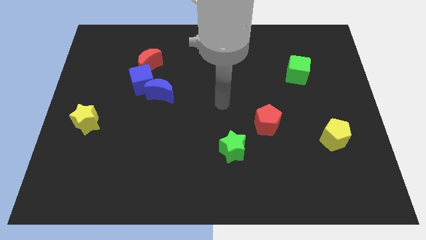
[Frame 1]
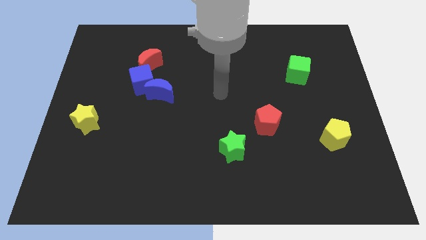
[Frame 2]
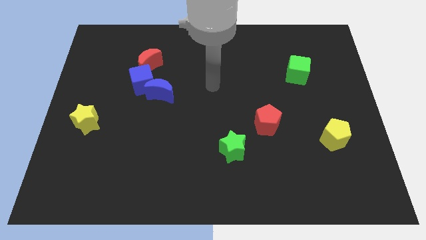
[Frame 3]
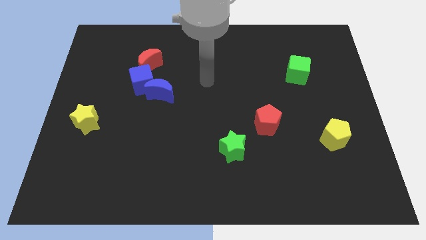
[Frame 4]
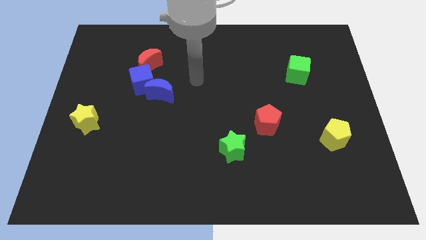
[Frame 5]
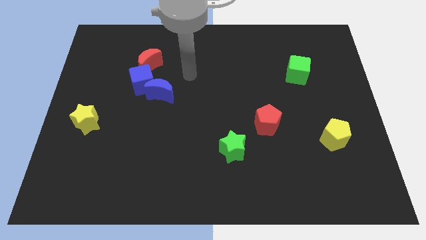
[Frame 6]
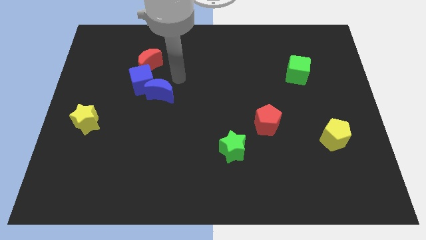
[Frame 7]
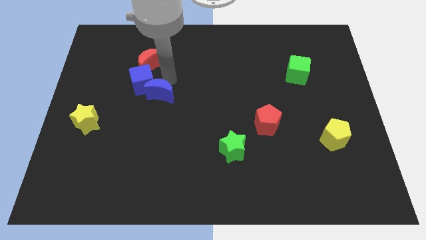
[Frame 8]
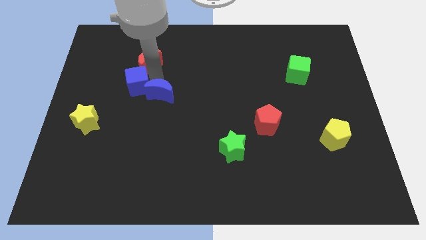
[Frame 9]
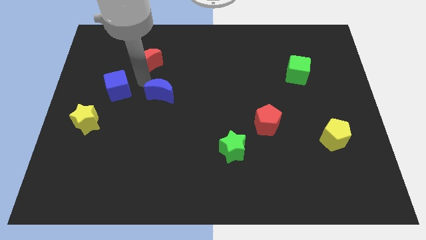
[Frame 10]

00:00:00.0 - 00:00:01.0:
separate the blue moon from the blue cube

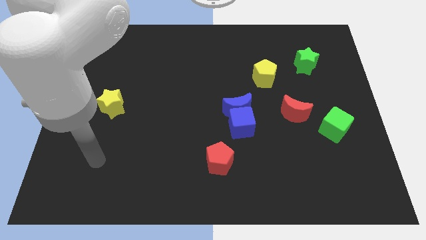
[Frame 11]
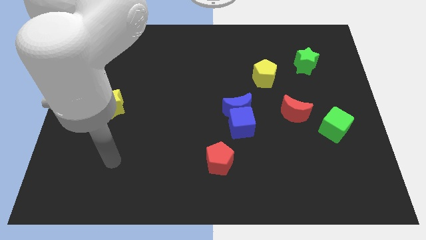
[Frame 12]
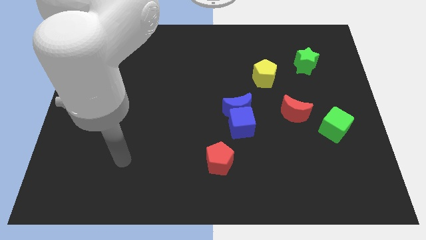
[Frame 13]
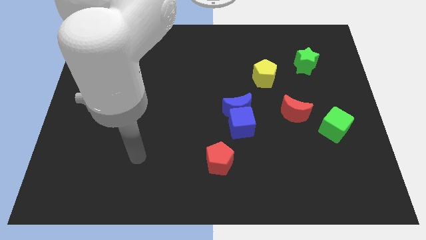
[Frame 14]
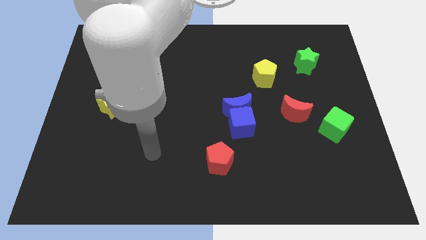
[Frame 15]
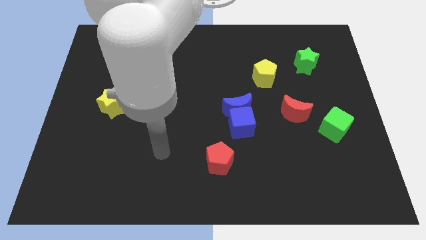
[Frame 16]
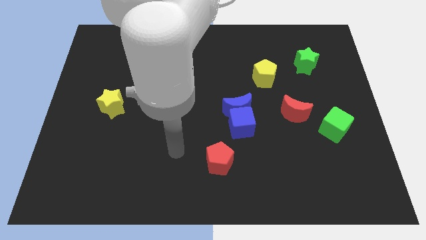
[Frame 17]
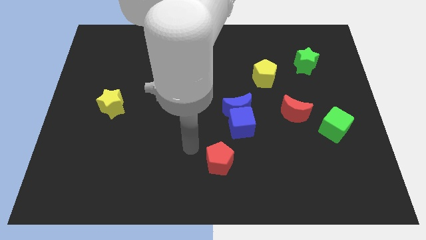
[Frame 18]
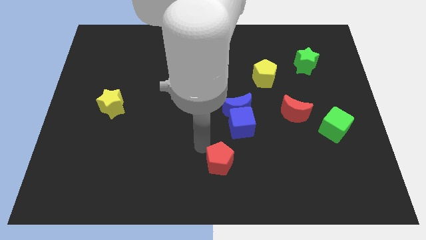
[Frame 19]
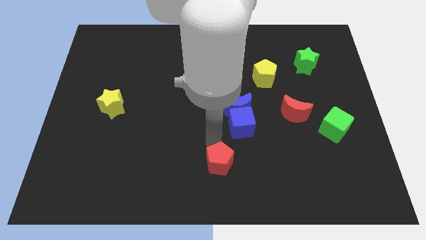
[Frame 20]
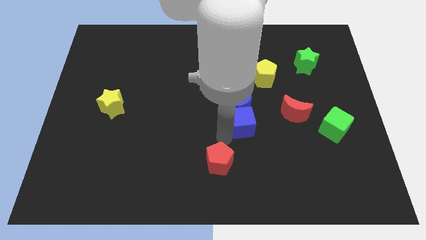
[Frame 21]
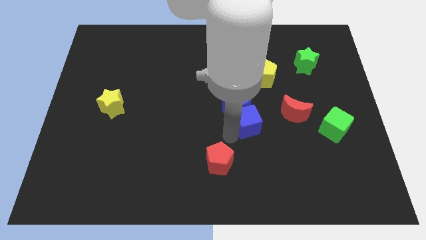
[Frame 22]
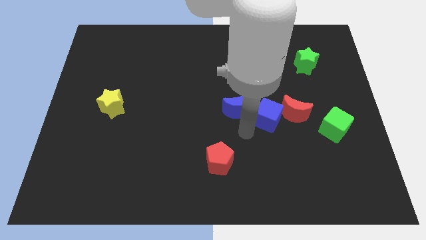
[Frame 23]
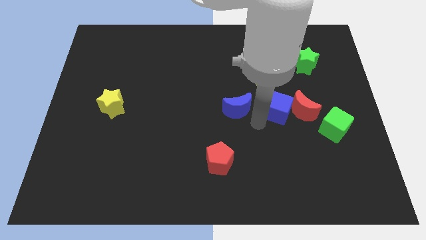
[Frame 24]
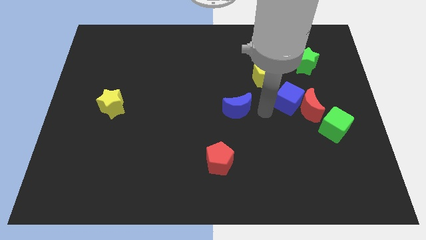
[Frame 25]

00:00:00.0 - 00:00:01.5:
move the blue moon away from the blue cube

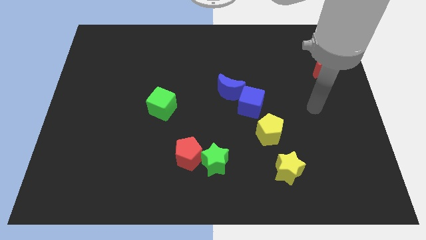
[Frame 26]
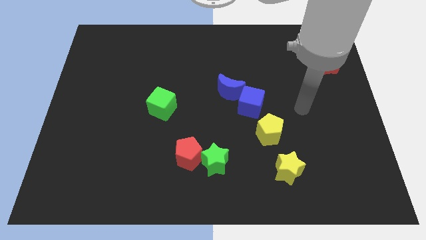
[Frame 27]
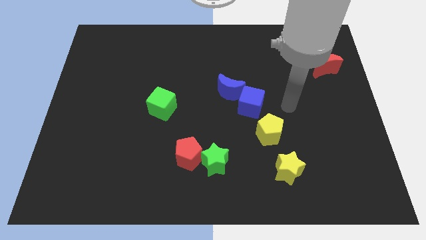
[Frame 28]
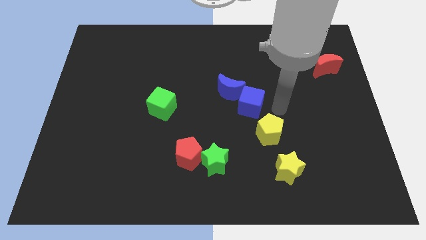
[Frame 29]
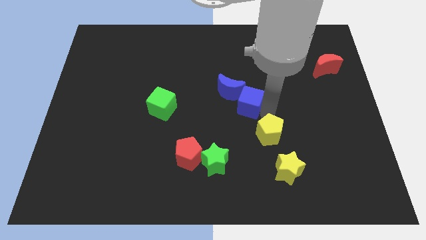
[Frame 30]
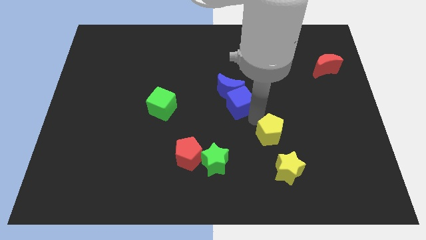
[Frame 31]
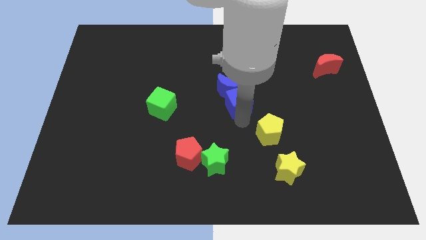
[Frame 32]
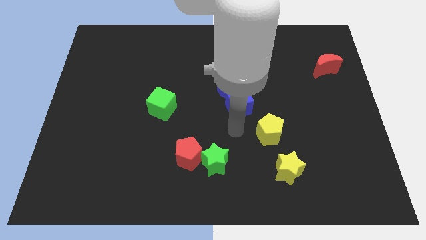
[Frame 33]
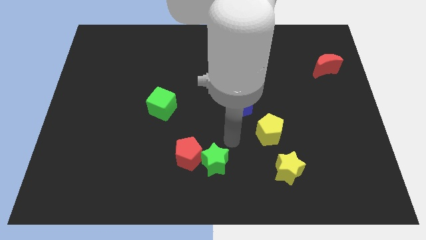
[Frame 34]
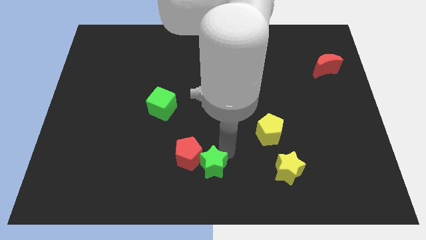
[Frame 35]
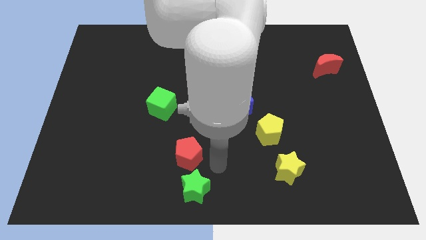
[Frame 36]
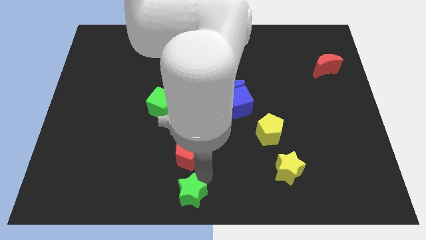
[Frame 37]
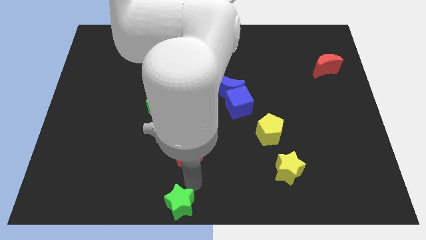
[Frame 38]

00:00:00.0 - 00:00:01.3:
move the red pentagon away from the green star

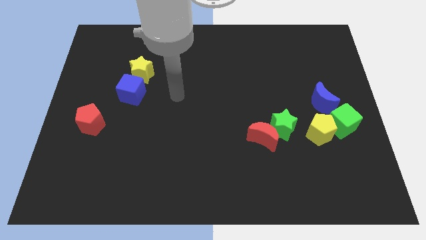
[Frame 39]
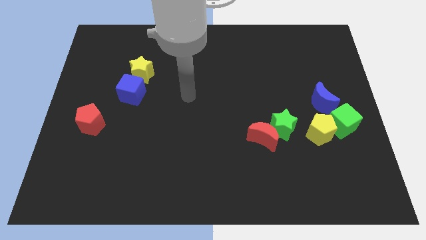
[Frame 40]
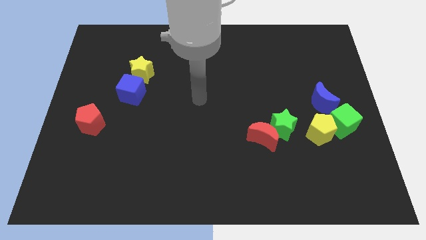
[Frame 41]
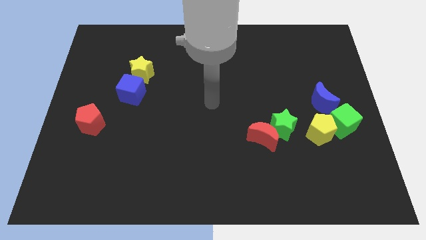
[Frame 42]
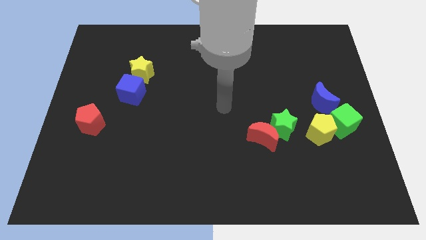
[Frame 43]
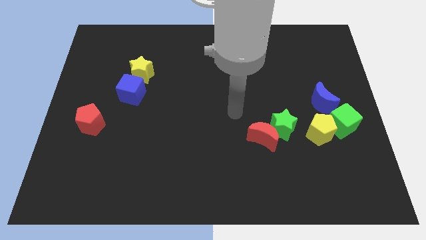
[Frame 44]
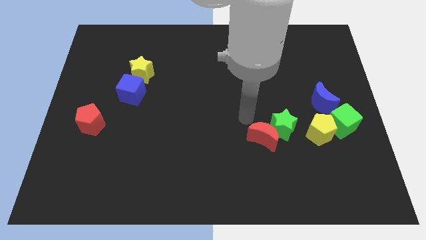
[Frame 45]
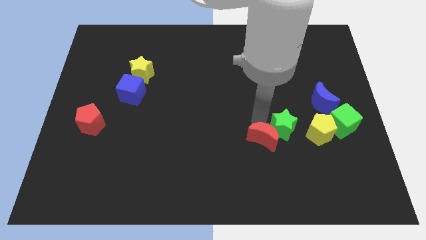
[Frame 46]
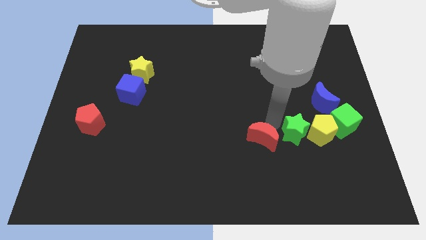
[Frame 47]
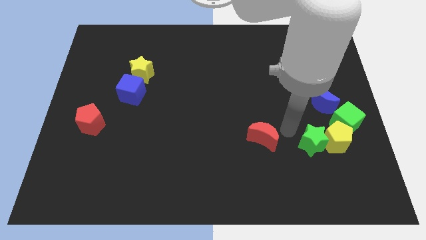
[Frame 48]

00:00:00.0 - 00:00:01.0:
move the red moon away from the green star

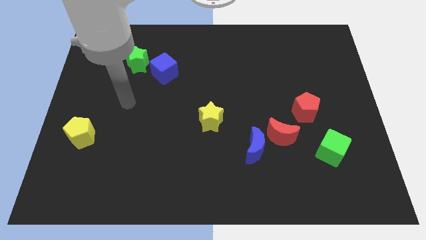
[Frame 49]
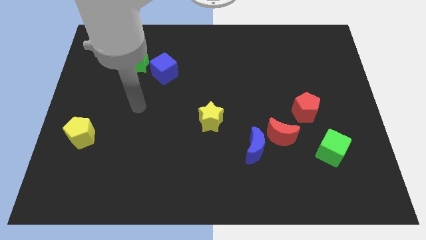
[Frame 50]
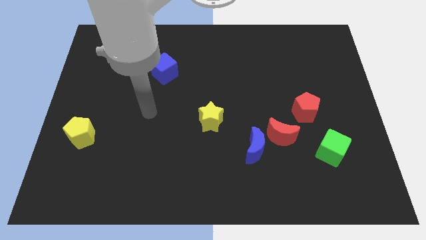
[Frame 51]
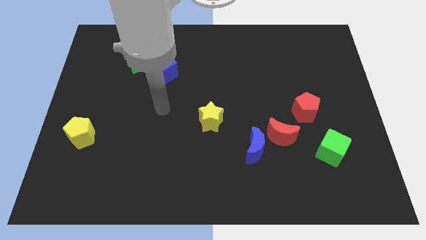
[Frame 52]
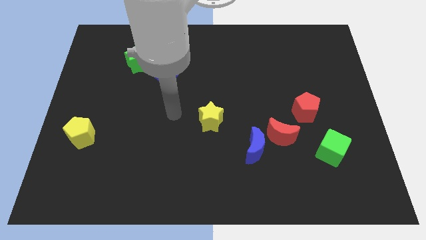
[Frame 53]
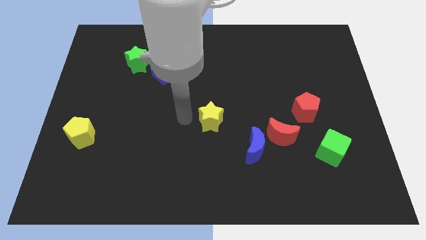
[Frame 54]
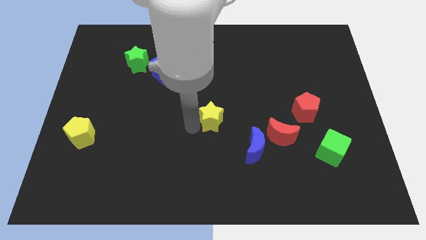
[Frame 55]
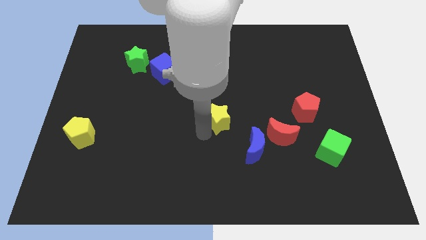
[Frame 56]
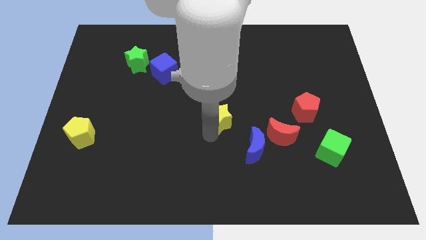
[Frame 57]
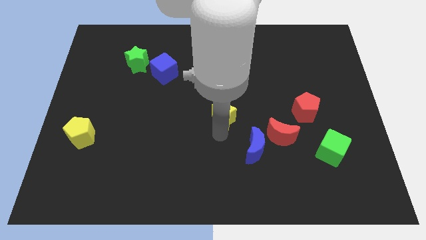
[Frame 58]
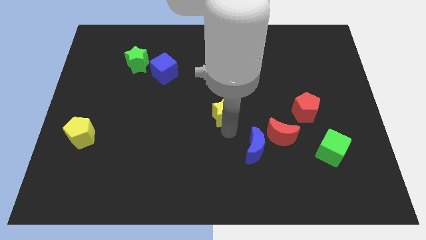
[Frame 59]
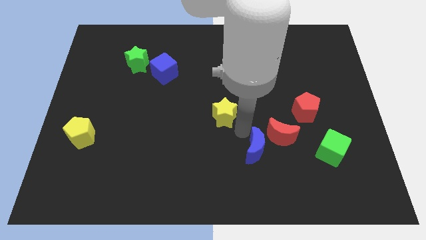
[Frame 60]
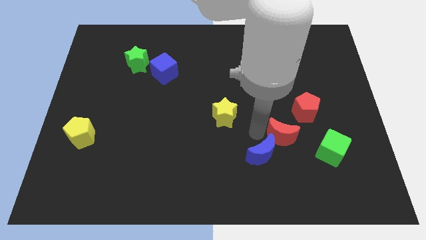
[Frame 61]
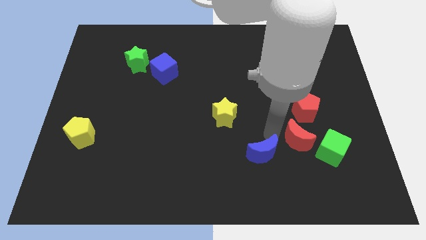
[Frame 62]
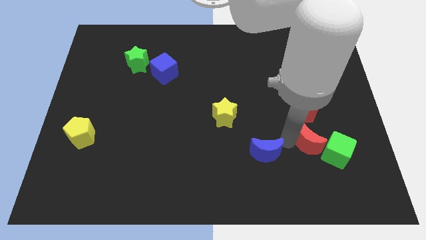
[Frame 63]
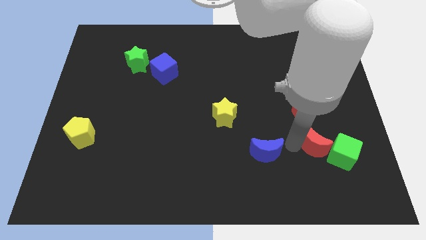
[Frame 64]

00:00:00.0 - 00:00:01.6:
pull the blue moon apart from the red moon

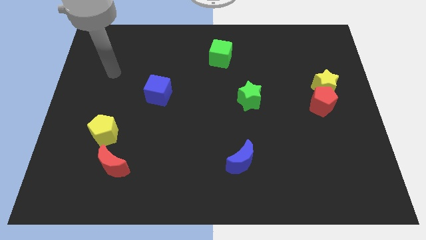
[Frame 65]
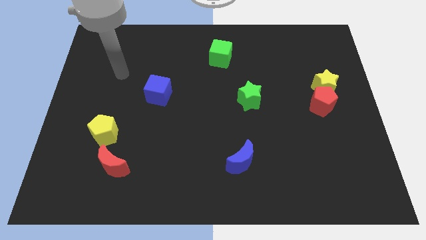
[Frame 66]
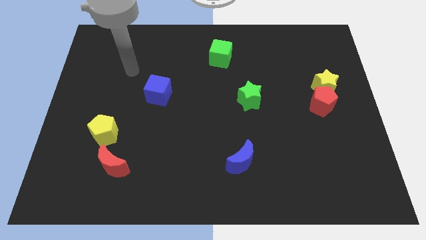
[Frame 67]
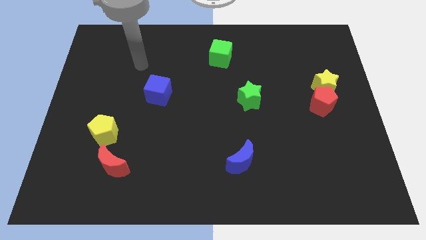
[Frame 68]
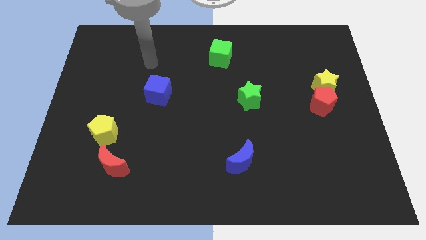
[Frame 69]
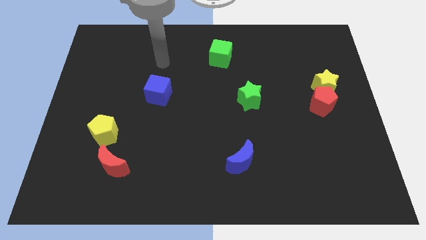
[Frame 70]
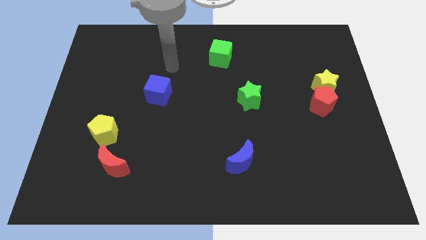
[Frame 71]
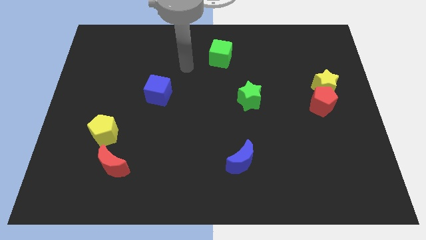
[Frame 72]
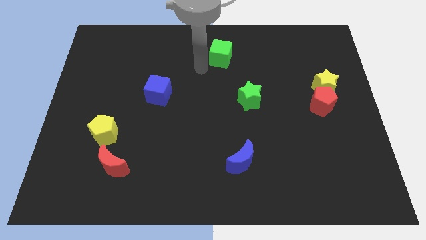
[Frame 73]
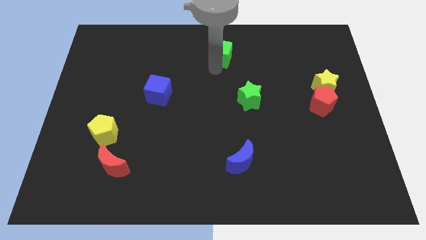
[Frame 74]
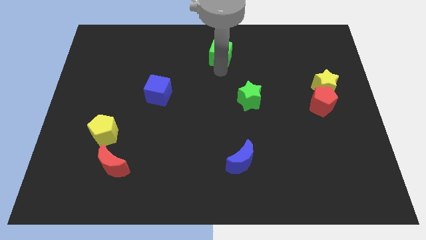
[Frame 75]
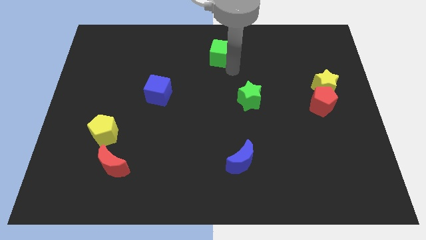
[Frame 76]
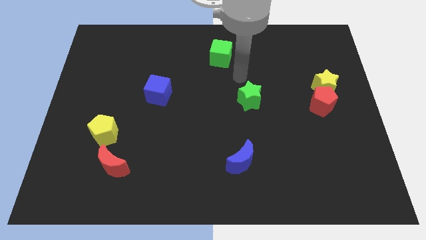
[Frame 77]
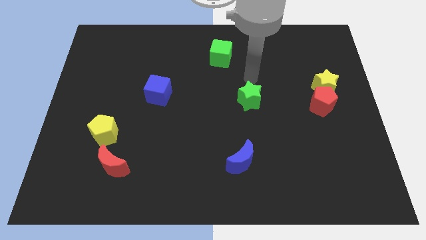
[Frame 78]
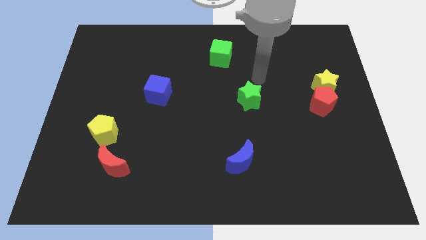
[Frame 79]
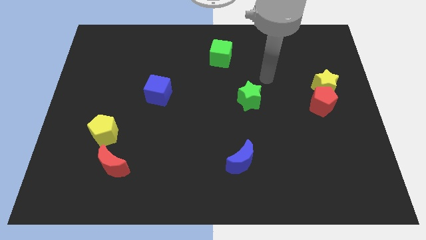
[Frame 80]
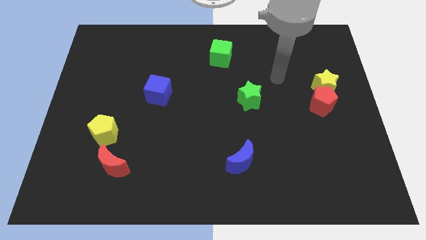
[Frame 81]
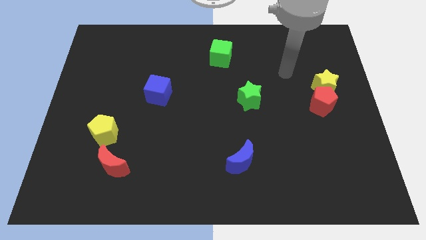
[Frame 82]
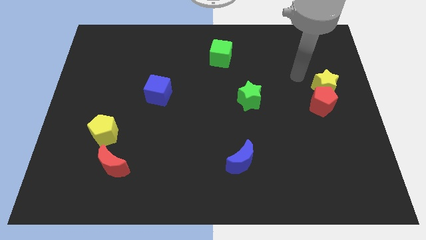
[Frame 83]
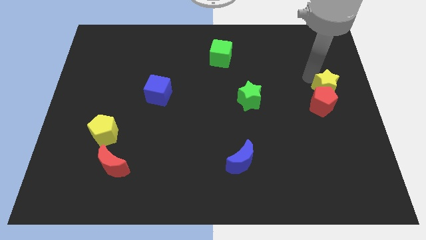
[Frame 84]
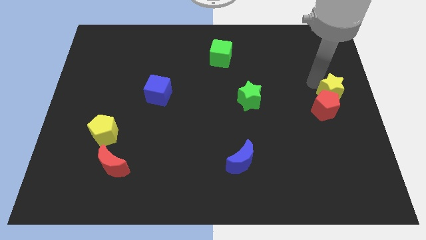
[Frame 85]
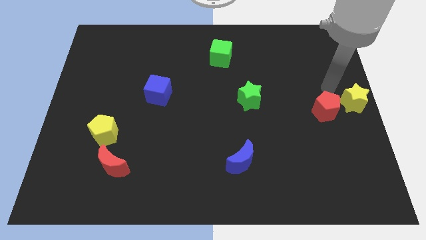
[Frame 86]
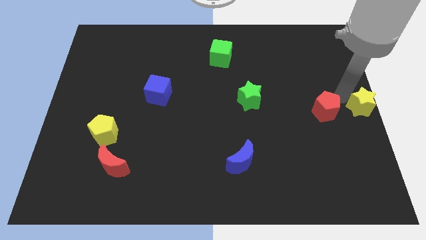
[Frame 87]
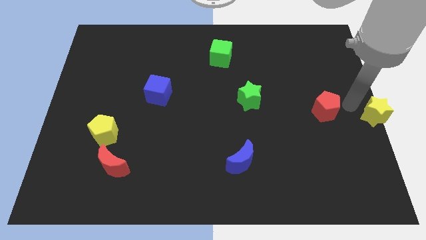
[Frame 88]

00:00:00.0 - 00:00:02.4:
move the red pentagon away from the yellow star

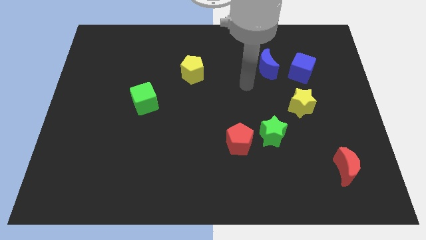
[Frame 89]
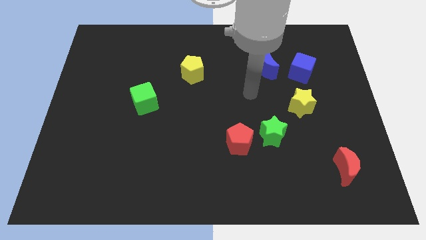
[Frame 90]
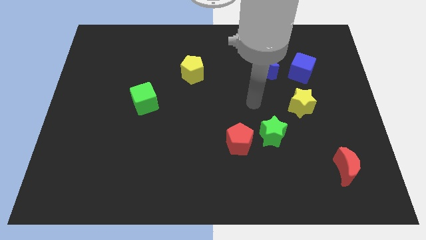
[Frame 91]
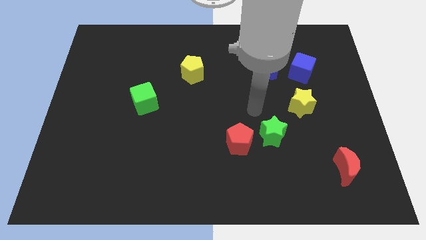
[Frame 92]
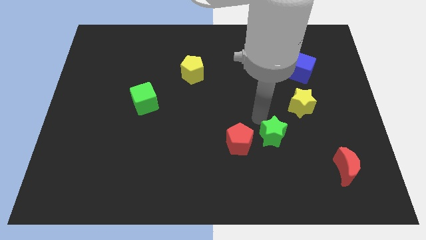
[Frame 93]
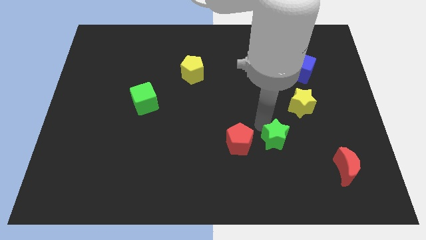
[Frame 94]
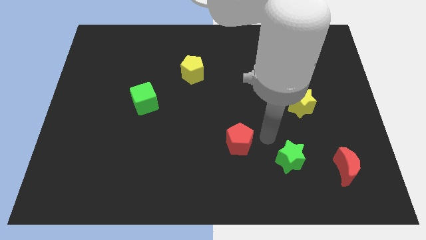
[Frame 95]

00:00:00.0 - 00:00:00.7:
pull the red pentagon apart from the green star
